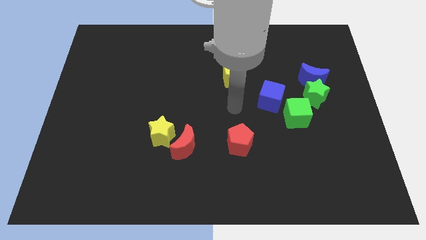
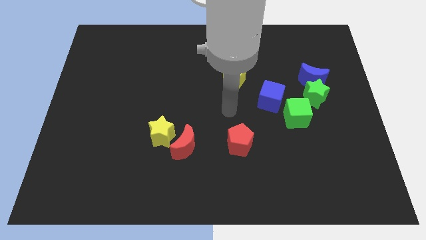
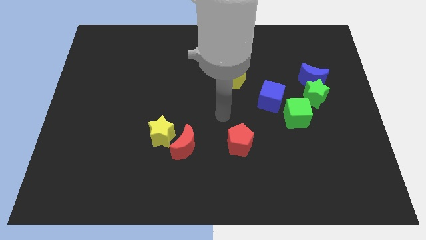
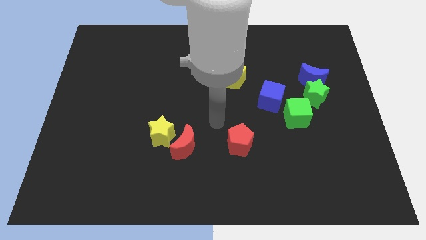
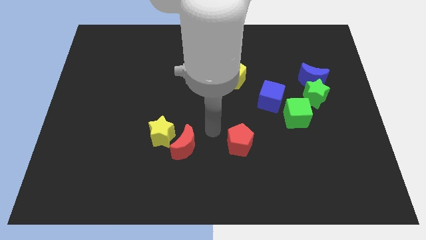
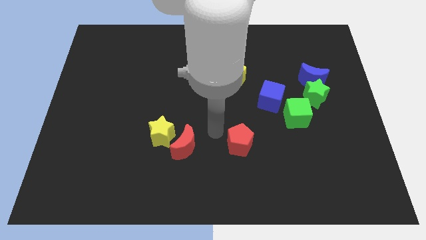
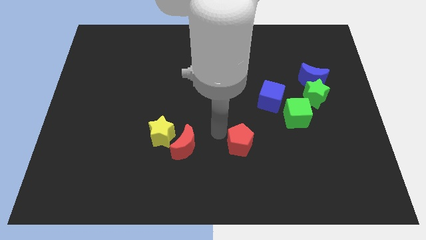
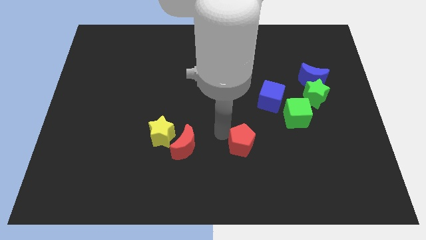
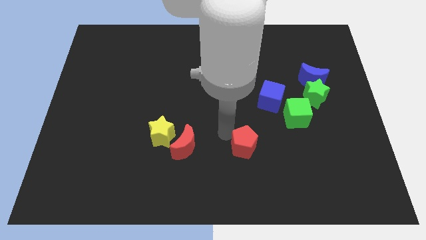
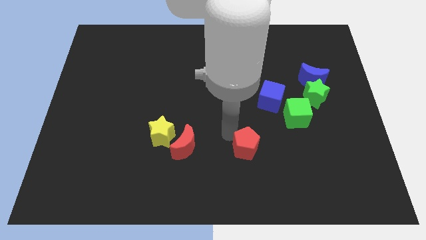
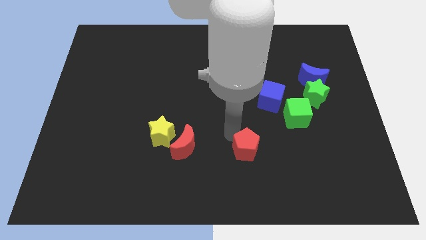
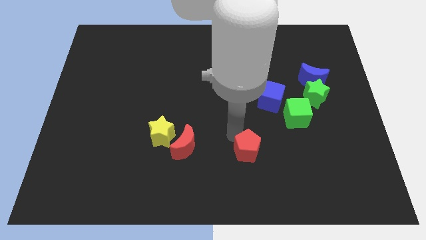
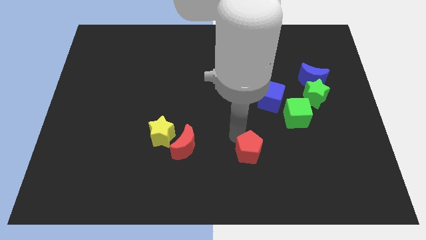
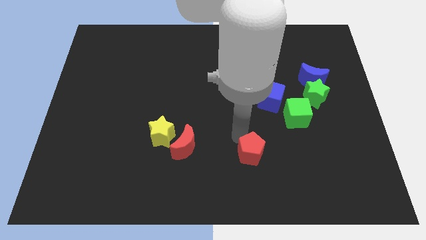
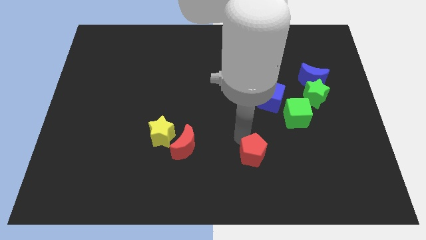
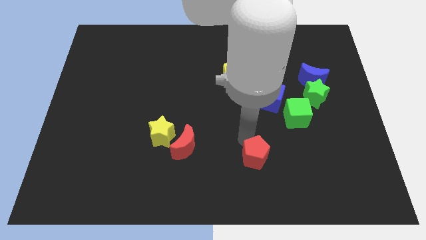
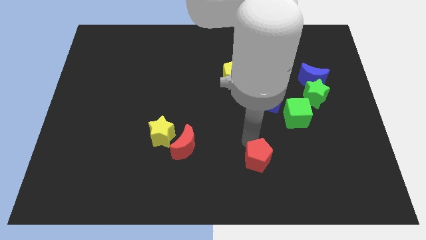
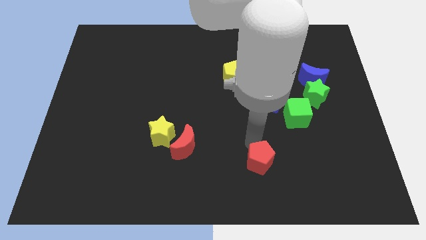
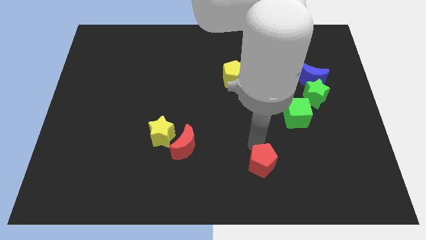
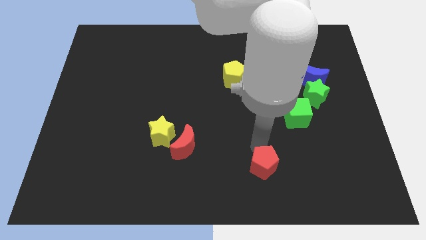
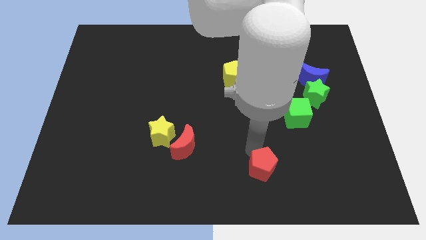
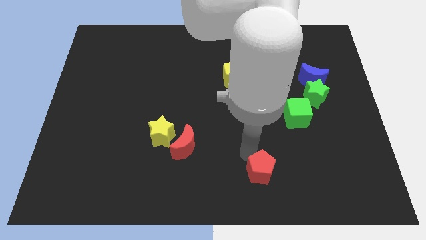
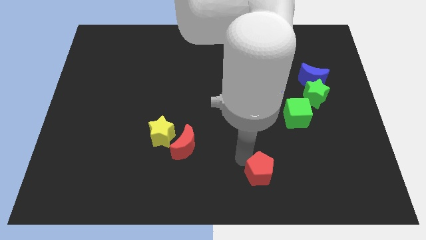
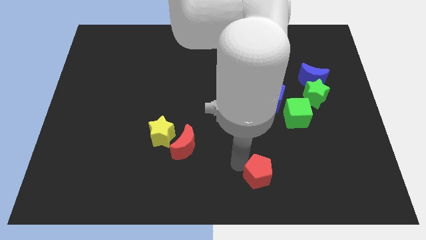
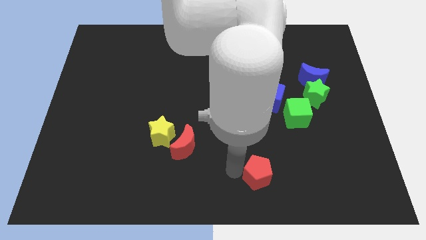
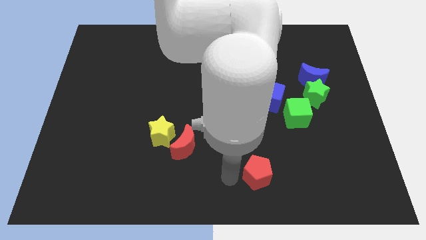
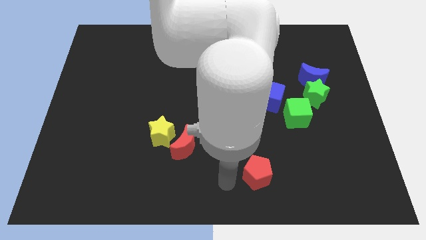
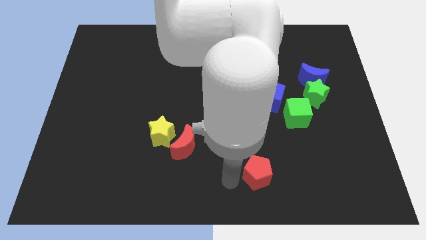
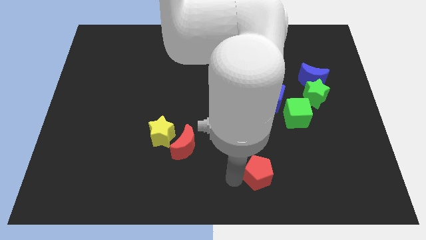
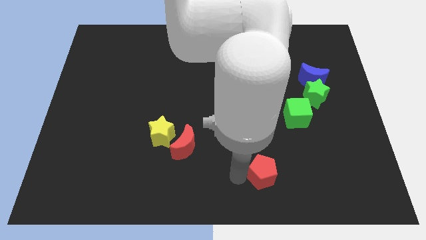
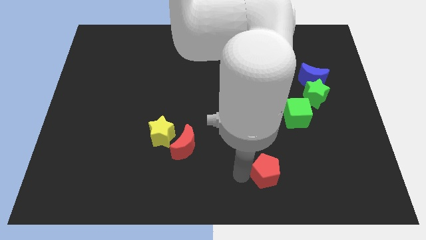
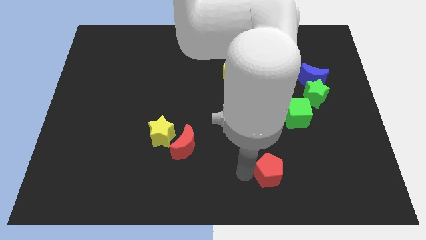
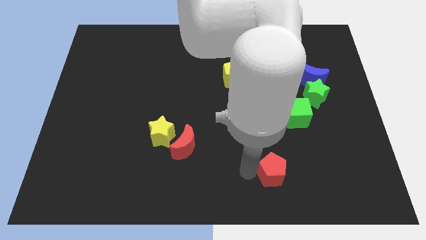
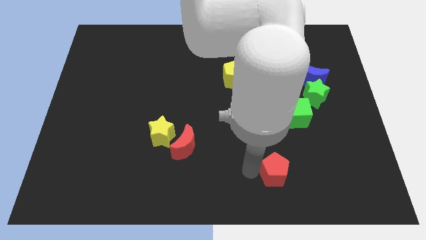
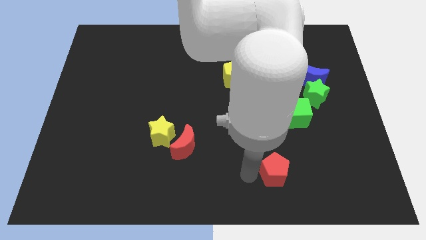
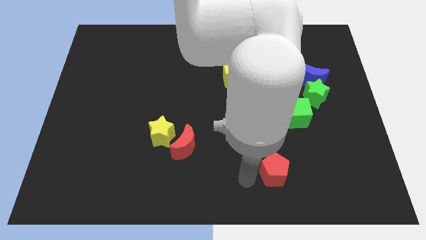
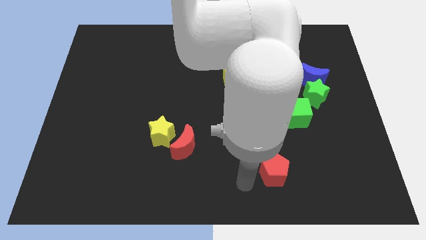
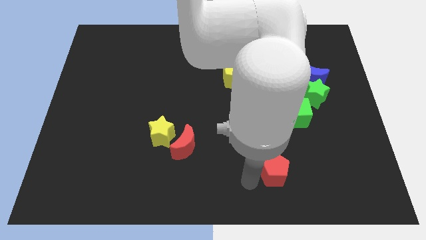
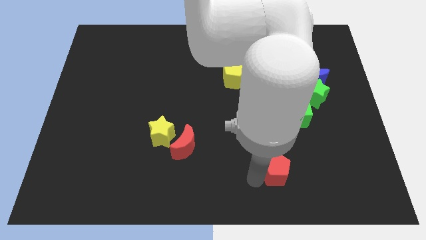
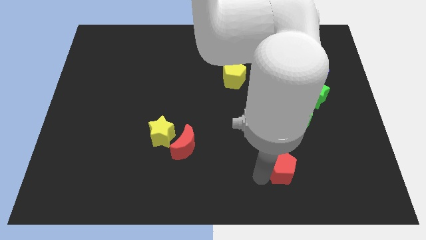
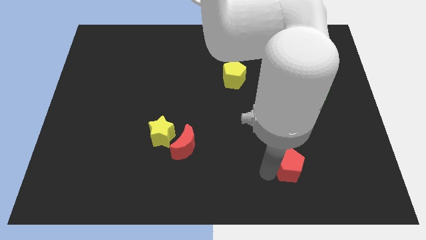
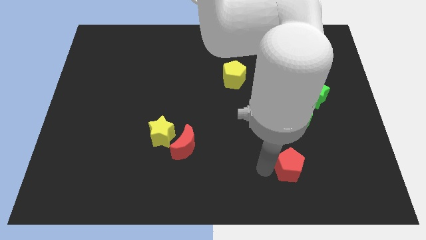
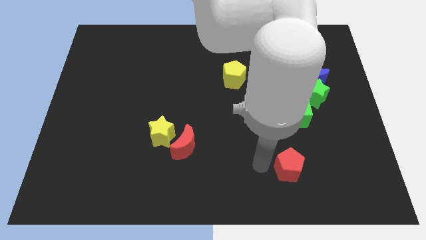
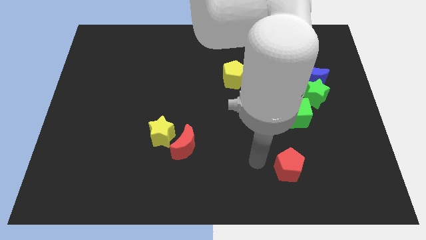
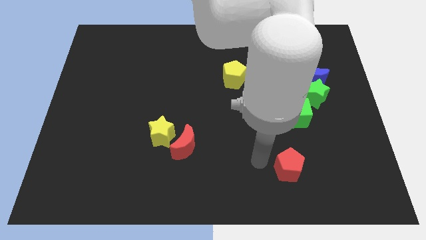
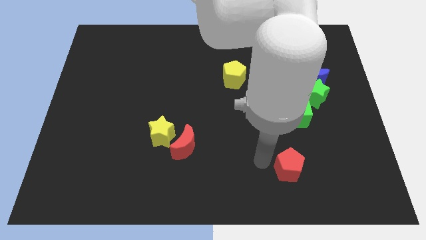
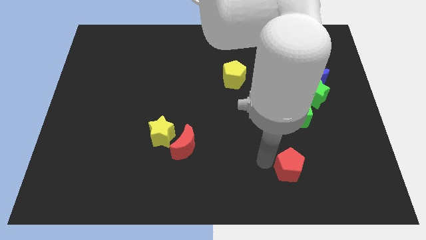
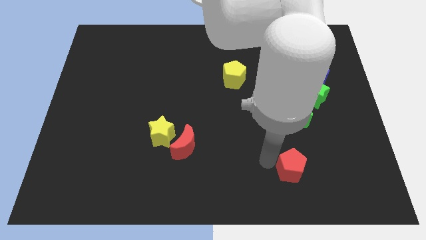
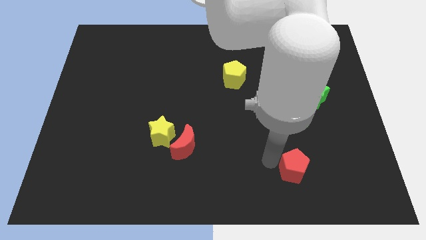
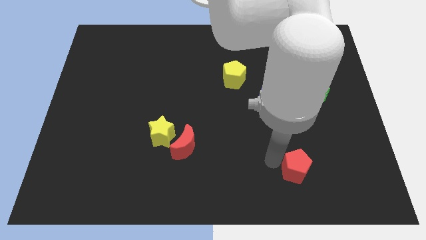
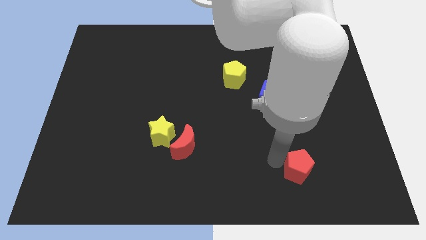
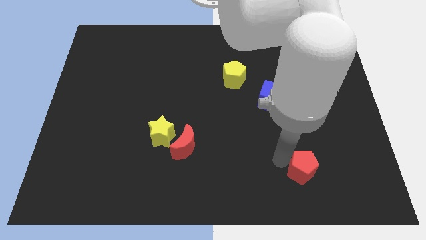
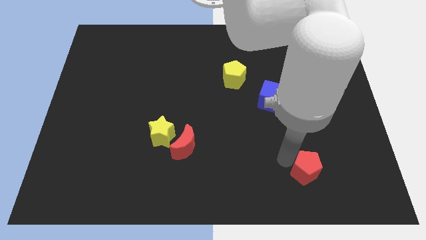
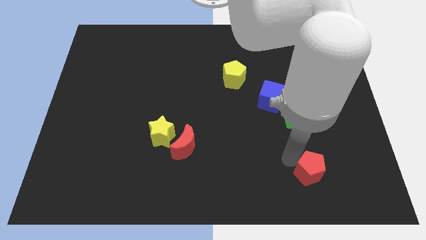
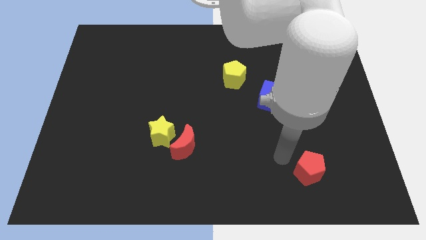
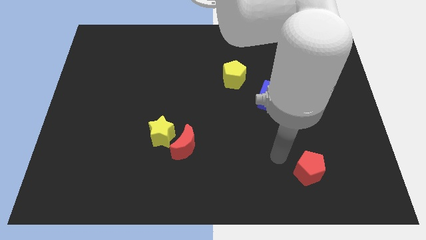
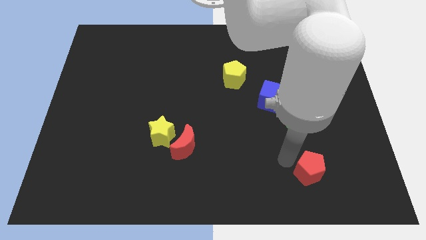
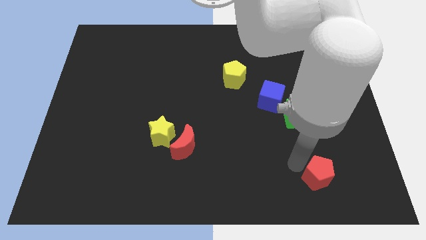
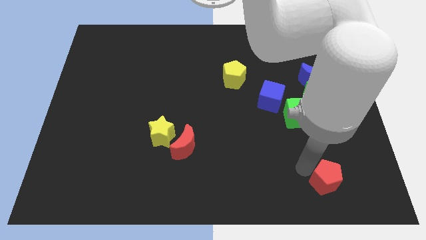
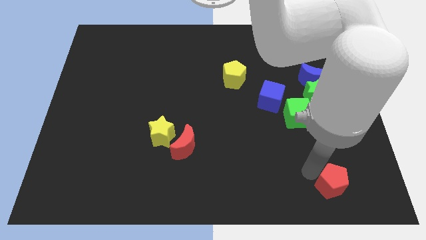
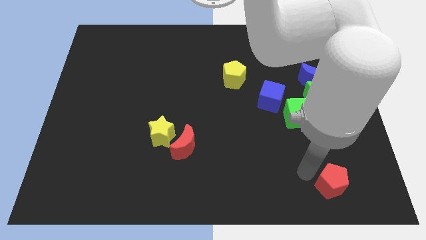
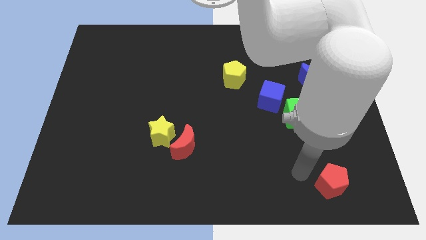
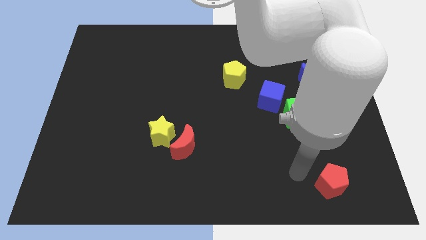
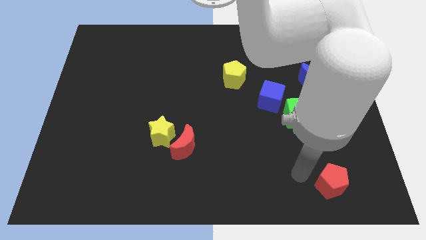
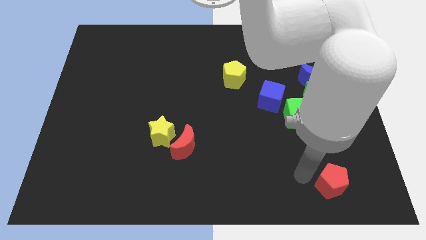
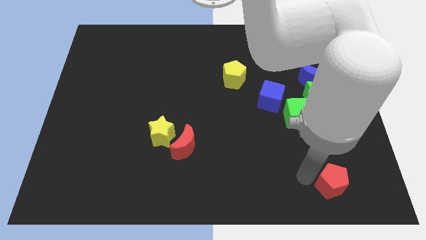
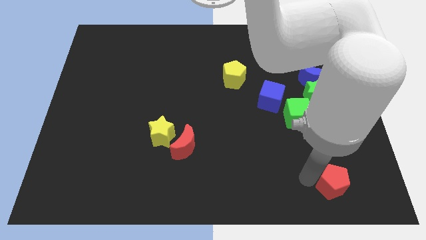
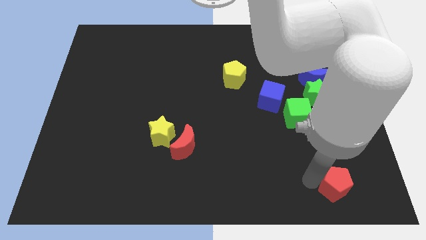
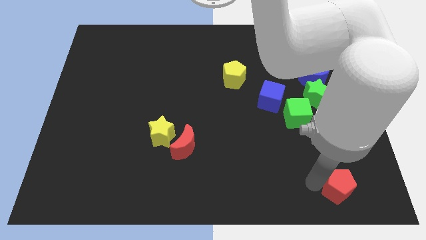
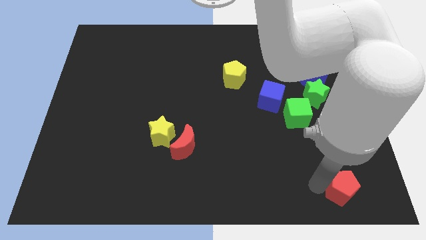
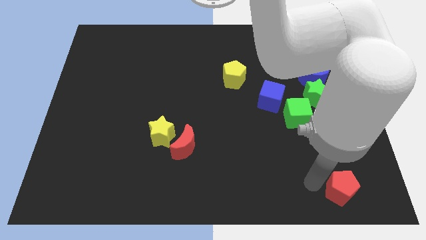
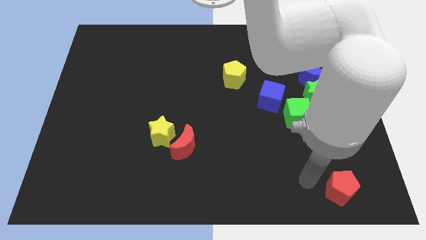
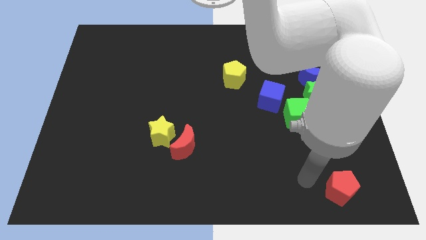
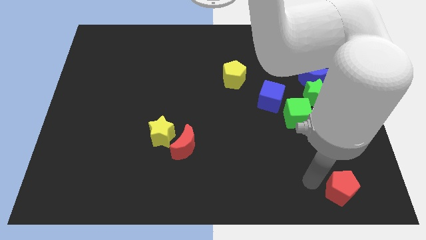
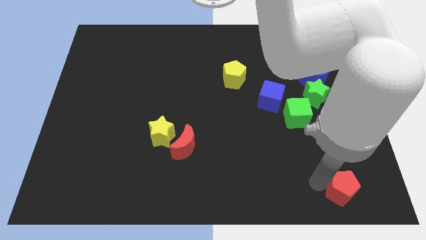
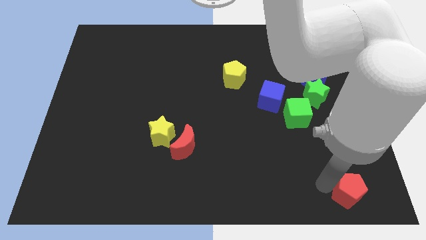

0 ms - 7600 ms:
move the red pentagon to the bottom right of the board
